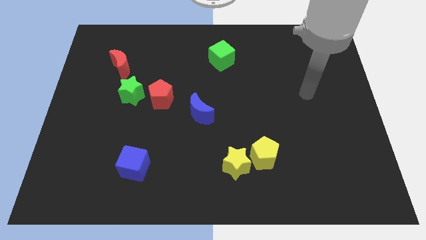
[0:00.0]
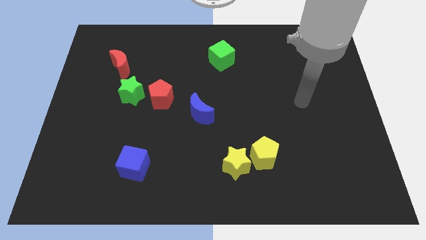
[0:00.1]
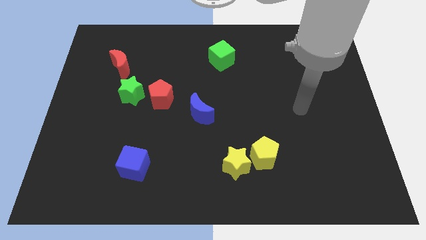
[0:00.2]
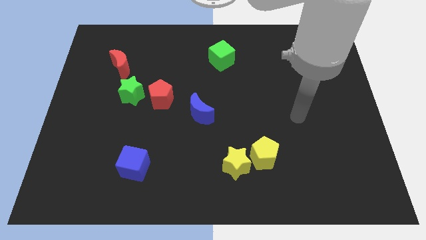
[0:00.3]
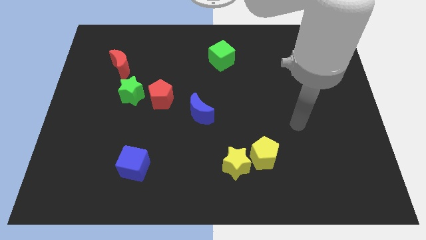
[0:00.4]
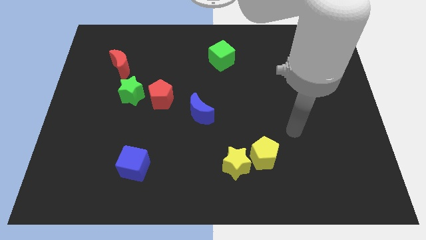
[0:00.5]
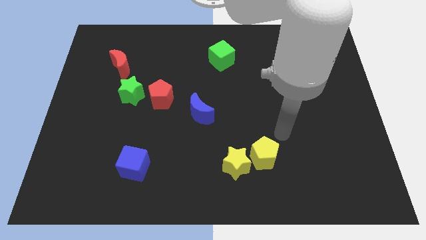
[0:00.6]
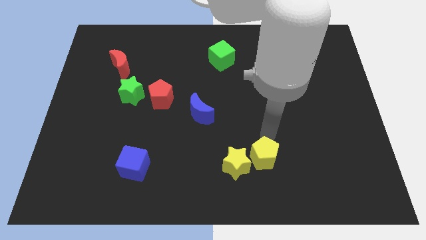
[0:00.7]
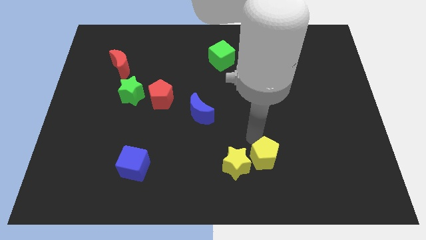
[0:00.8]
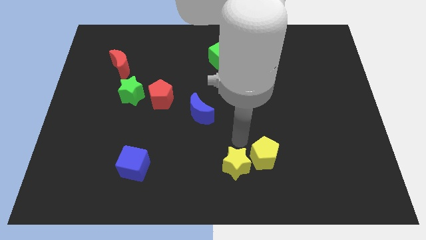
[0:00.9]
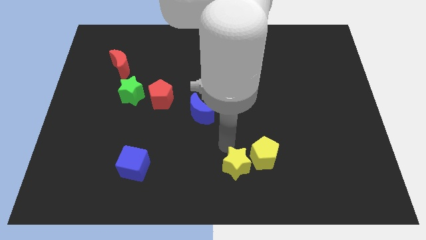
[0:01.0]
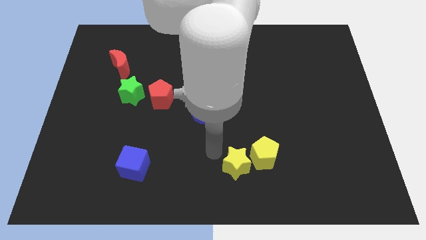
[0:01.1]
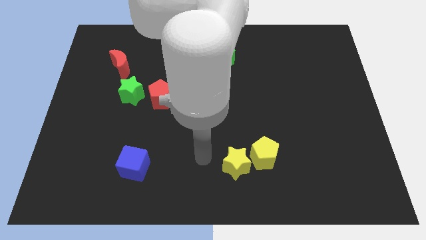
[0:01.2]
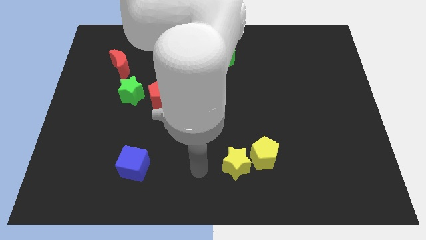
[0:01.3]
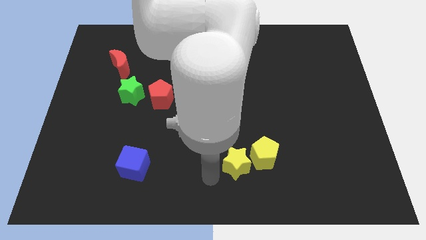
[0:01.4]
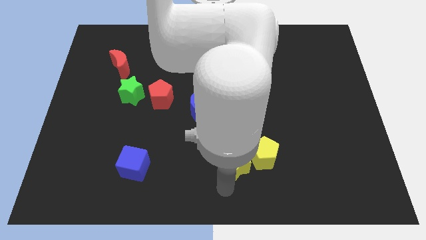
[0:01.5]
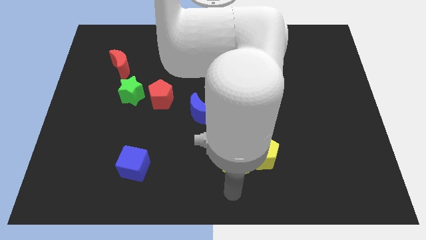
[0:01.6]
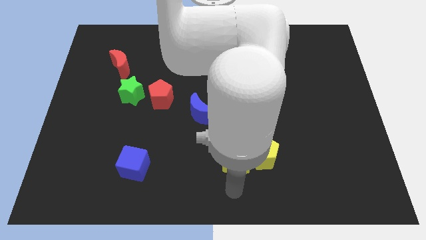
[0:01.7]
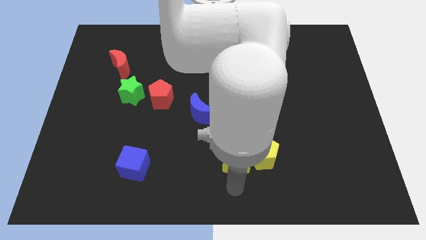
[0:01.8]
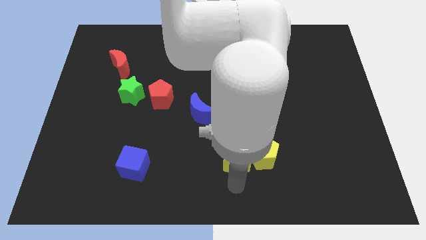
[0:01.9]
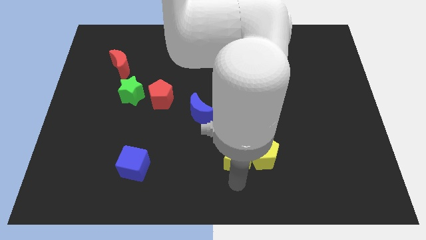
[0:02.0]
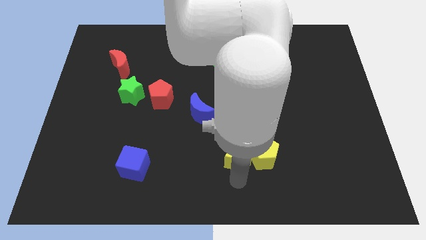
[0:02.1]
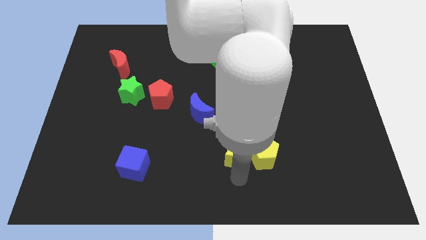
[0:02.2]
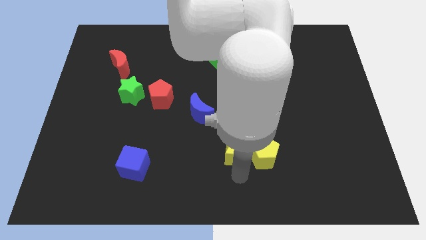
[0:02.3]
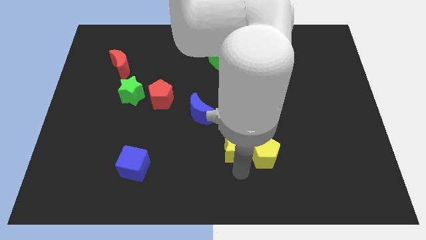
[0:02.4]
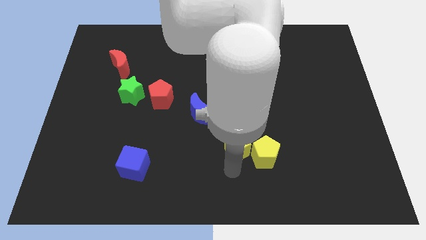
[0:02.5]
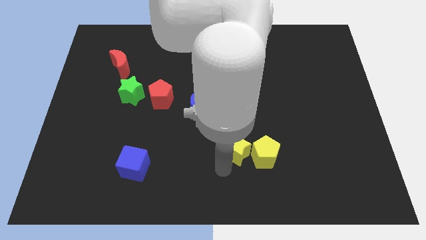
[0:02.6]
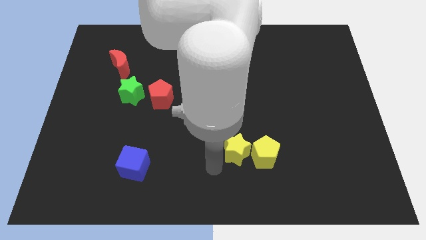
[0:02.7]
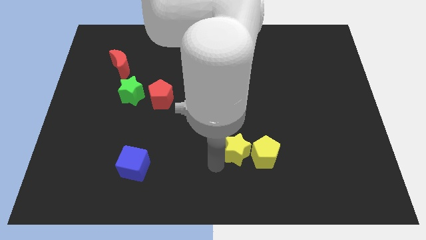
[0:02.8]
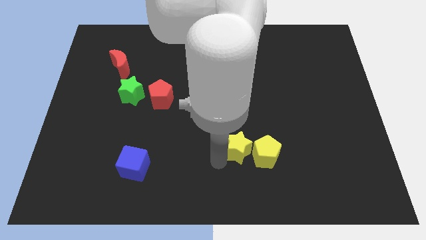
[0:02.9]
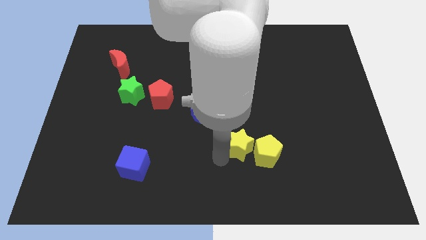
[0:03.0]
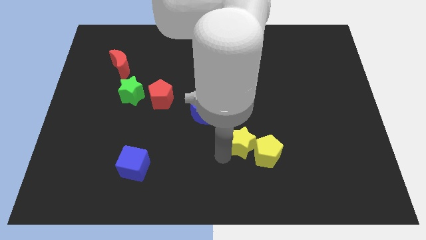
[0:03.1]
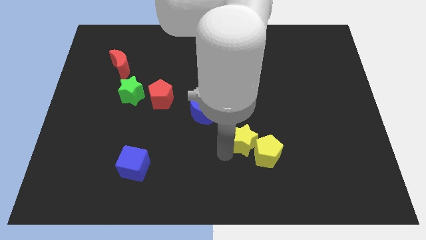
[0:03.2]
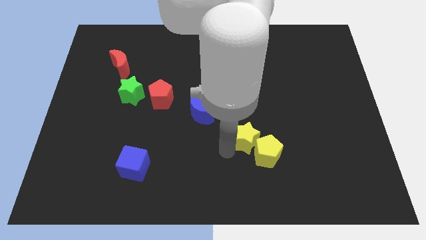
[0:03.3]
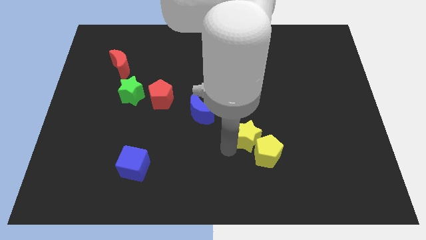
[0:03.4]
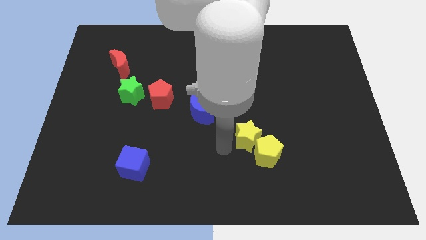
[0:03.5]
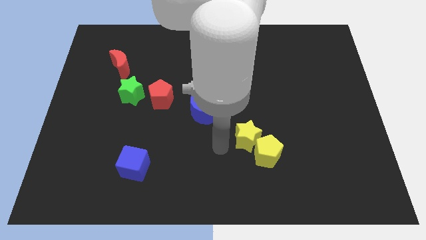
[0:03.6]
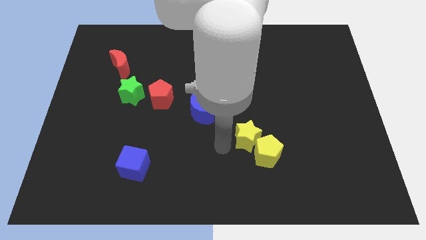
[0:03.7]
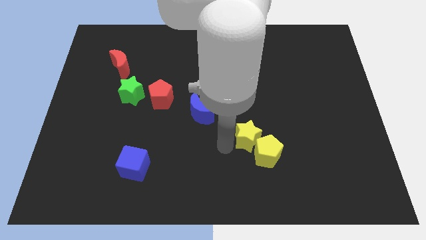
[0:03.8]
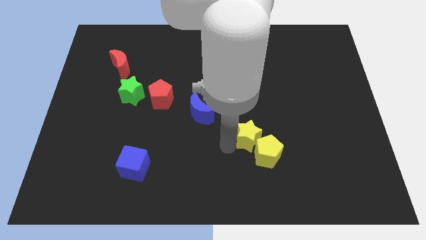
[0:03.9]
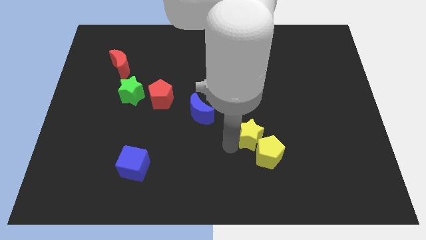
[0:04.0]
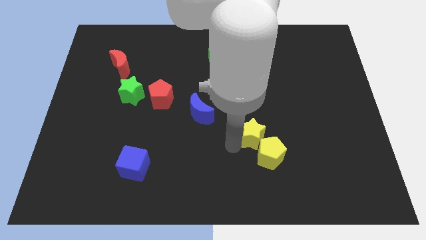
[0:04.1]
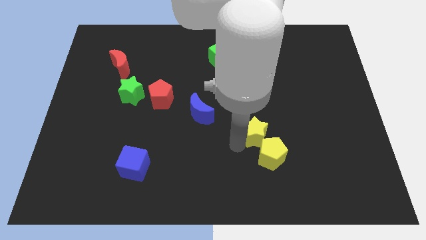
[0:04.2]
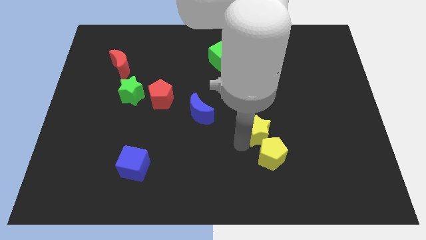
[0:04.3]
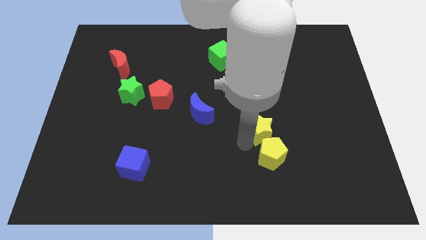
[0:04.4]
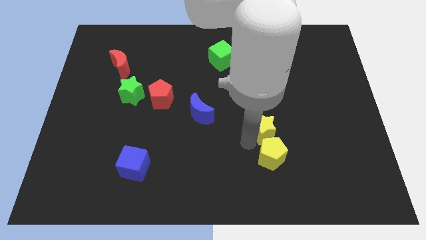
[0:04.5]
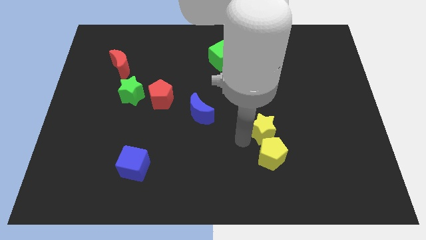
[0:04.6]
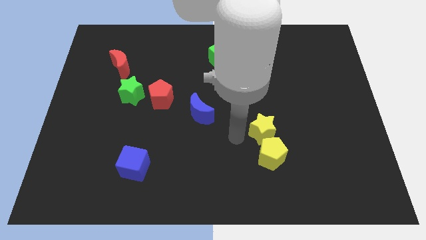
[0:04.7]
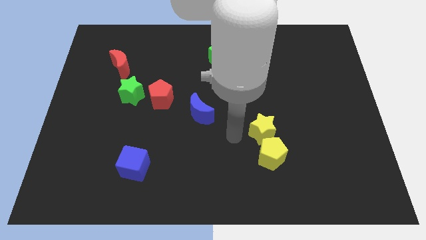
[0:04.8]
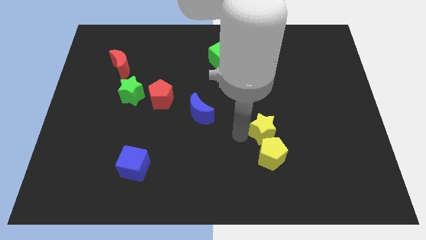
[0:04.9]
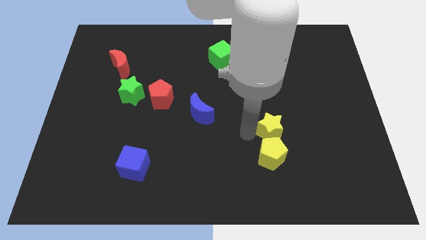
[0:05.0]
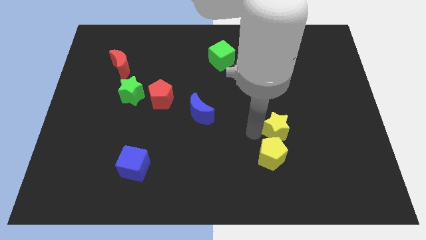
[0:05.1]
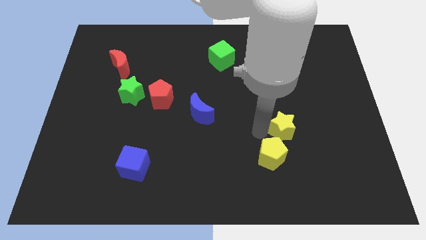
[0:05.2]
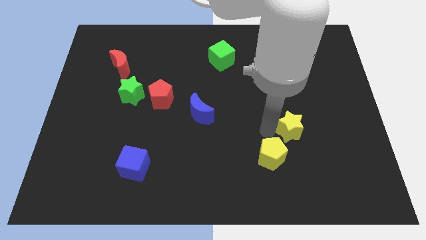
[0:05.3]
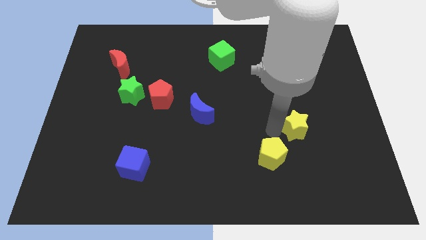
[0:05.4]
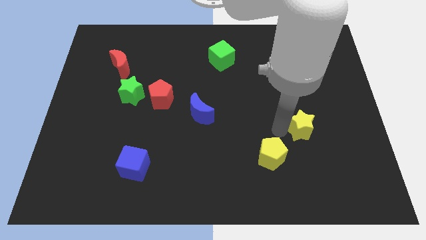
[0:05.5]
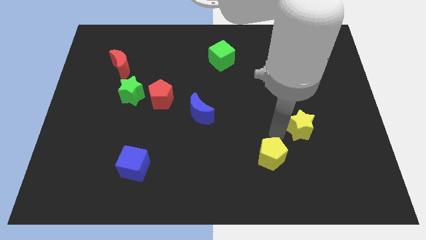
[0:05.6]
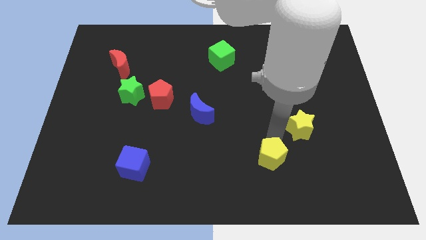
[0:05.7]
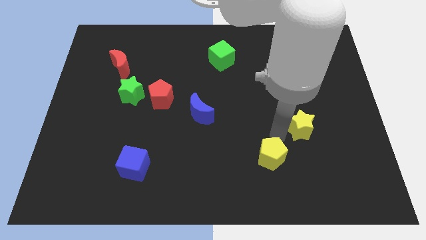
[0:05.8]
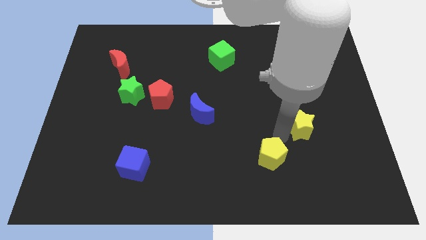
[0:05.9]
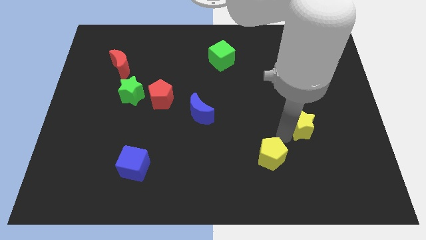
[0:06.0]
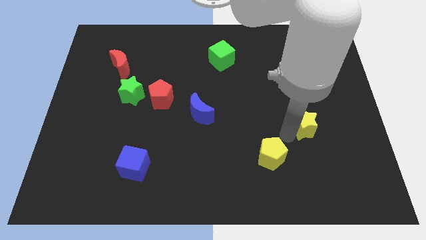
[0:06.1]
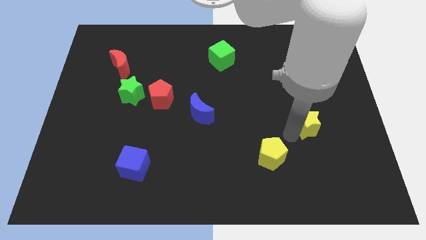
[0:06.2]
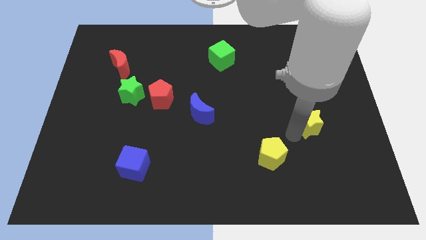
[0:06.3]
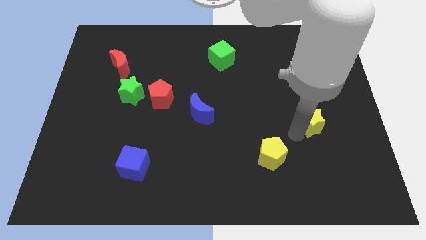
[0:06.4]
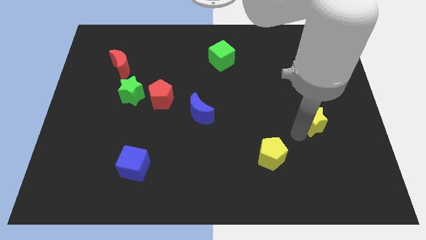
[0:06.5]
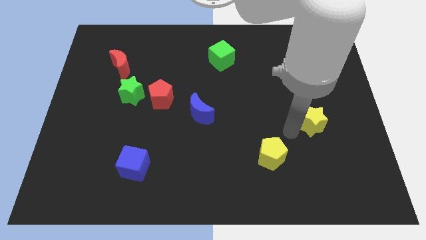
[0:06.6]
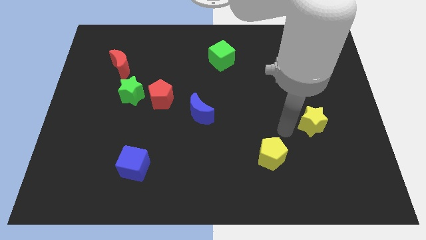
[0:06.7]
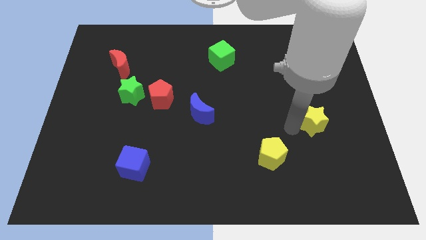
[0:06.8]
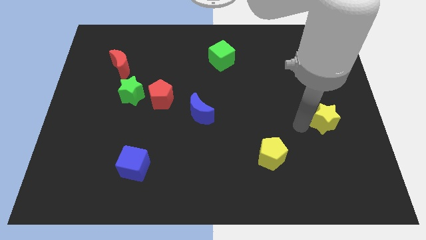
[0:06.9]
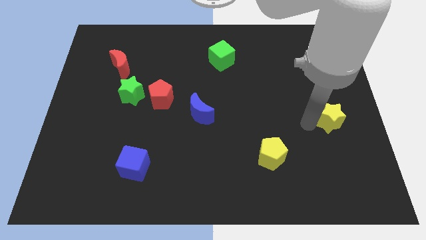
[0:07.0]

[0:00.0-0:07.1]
push the yellow star to the right side
